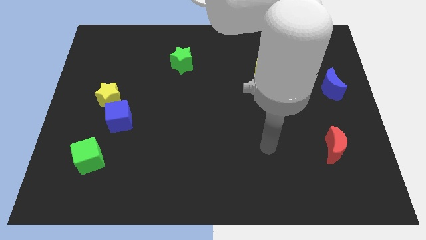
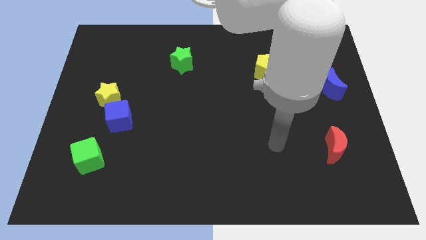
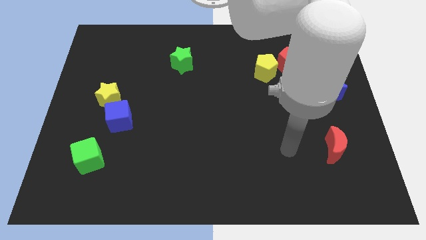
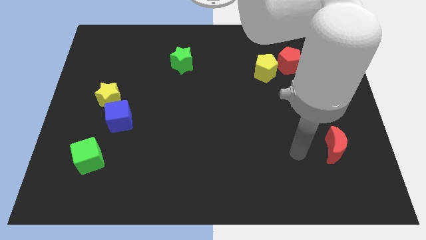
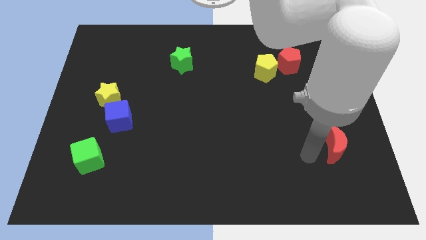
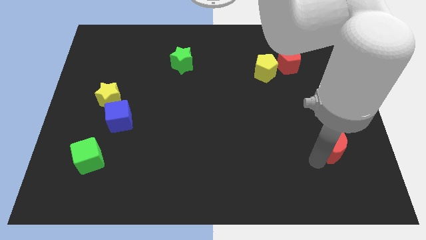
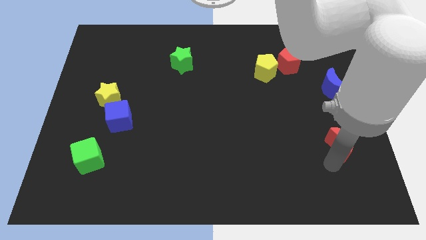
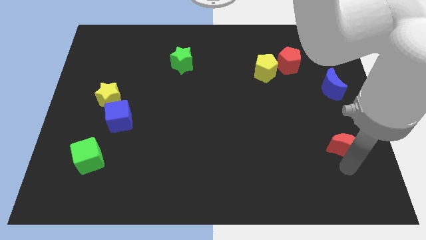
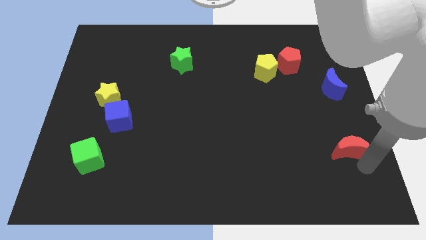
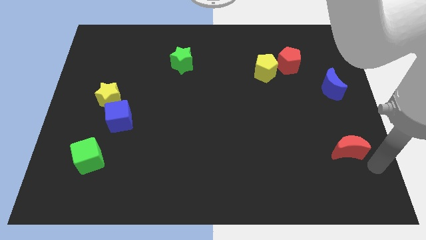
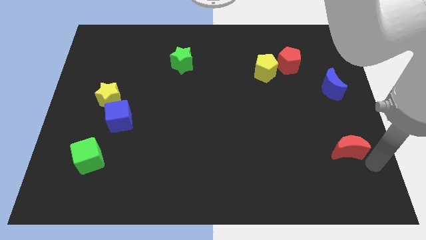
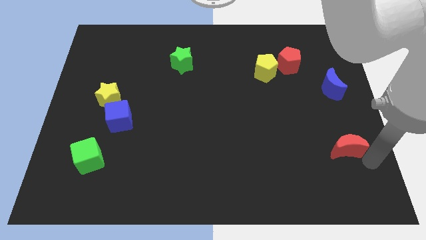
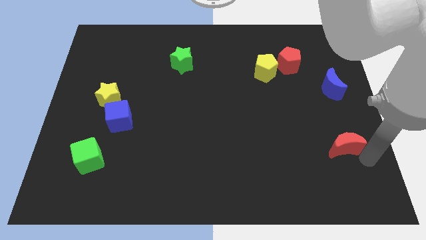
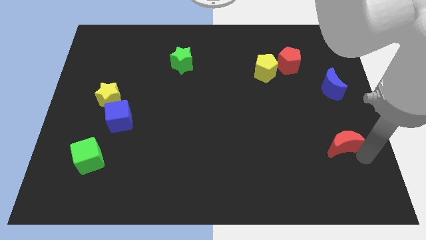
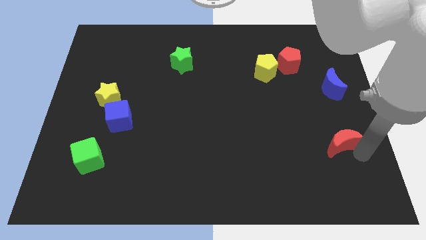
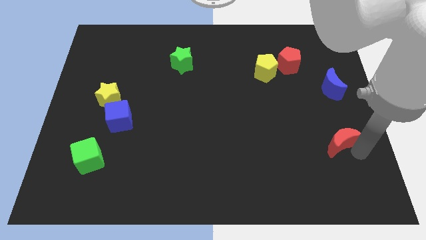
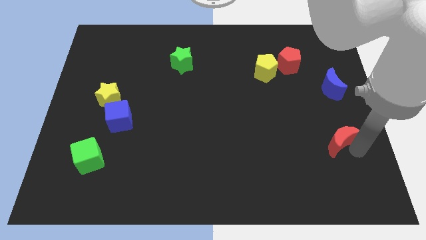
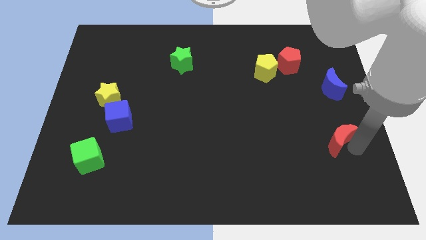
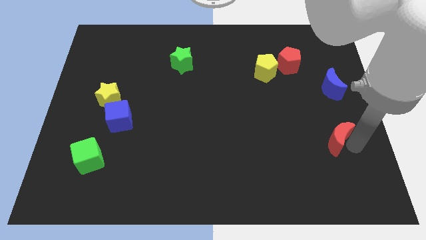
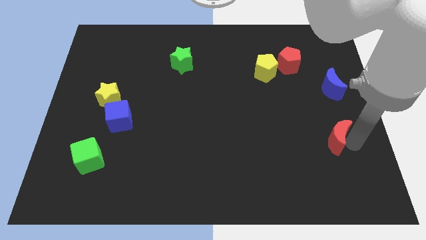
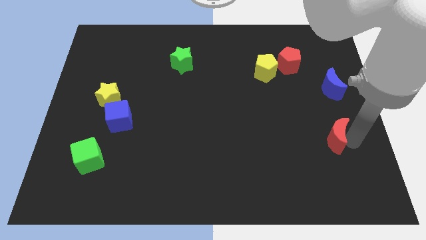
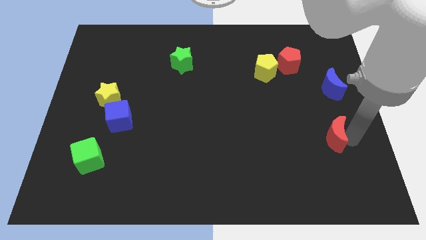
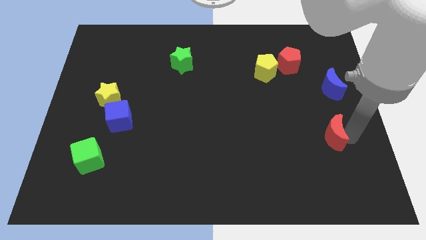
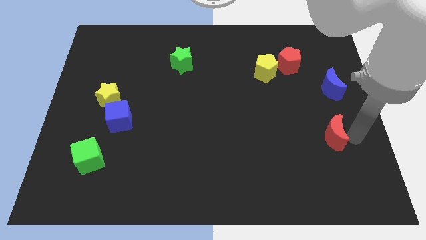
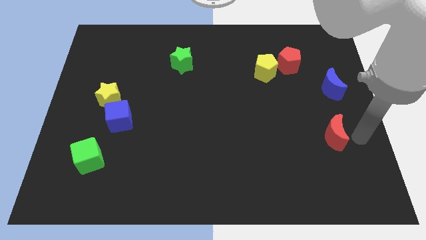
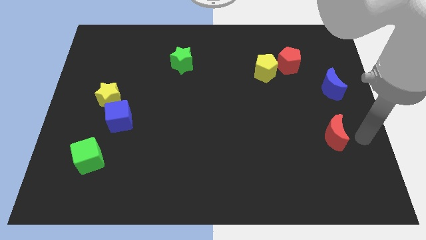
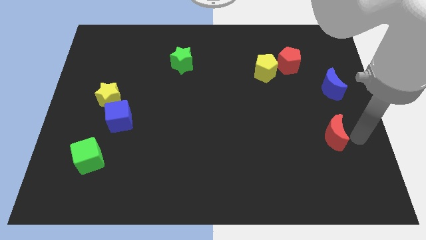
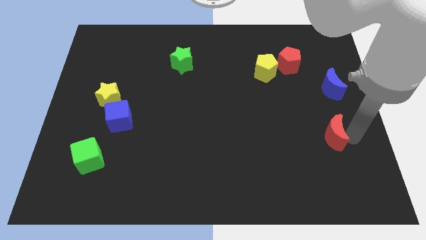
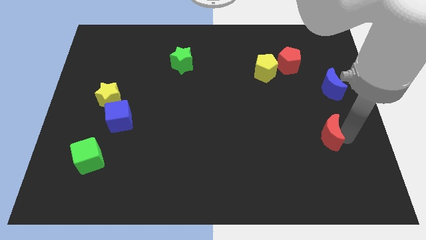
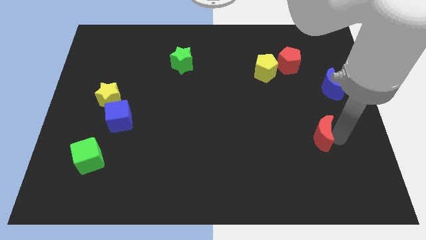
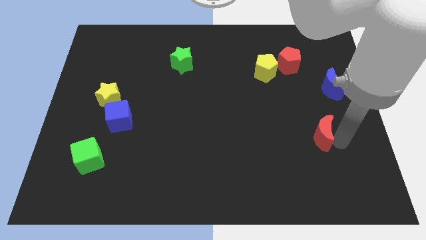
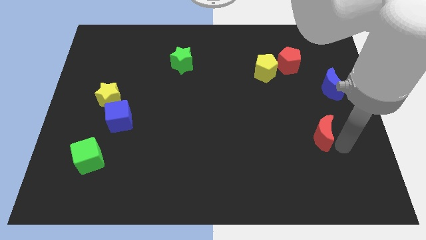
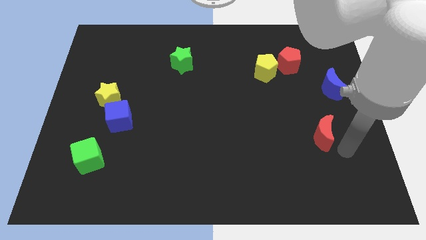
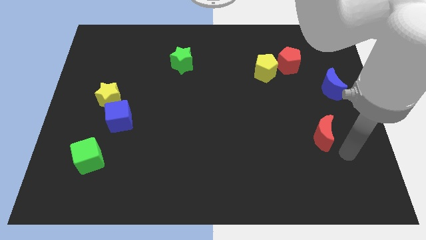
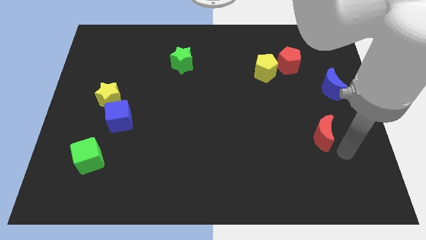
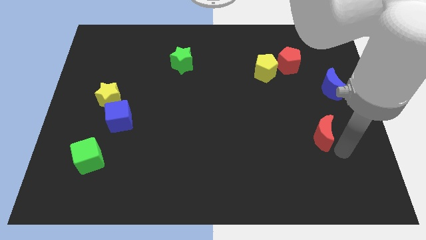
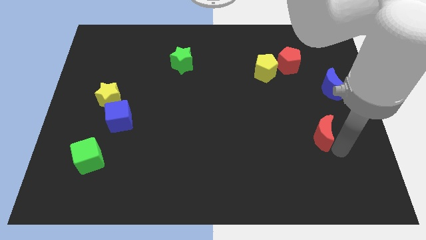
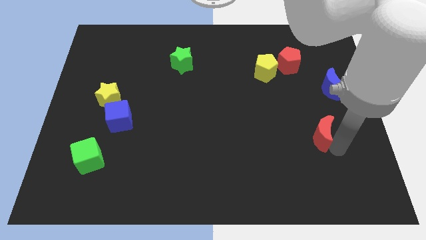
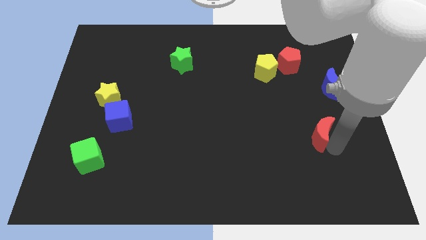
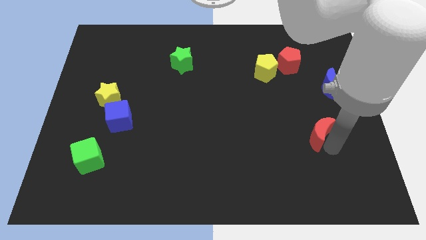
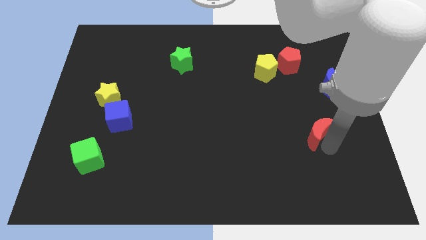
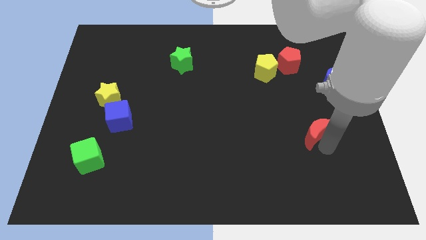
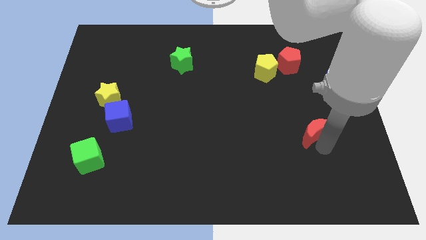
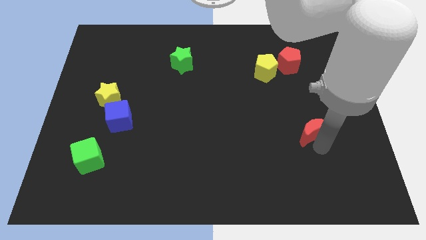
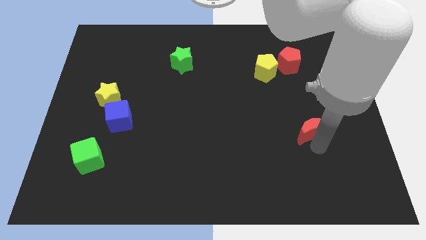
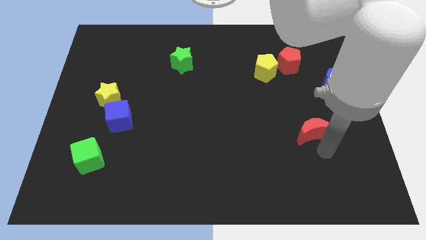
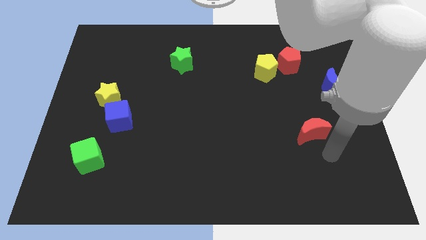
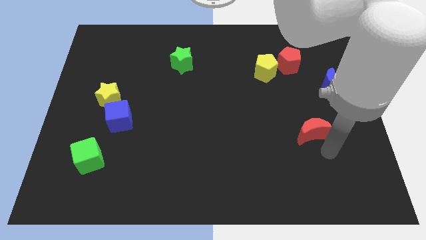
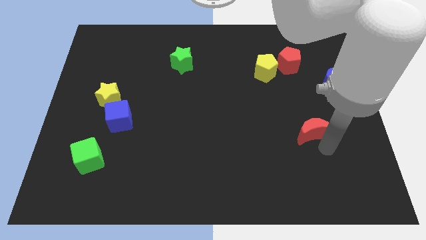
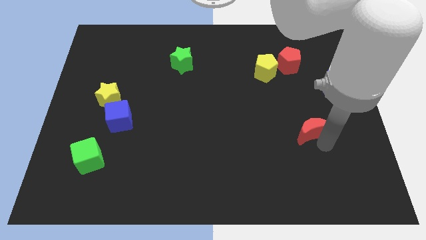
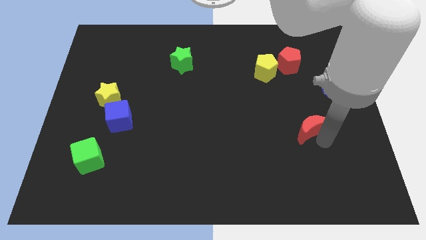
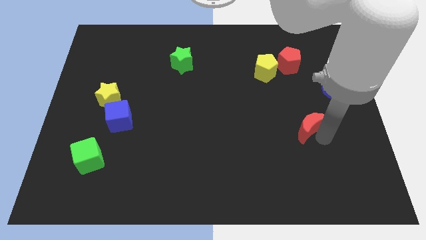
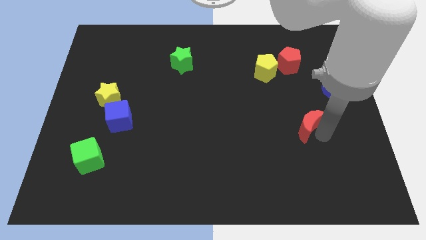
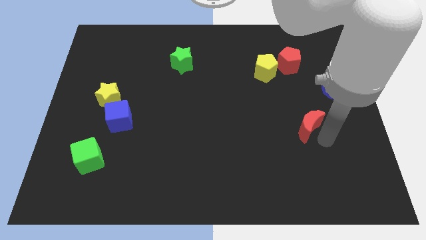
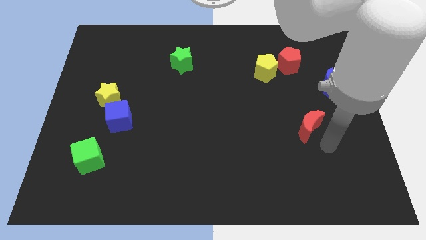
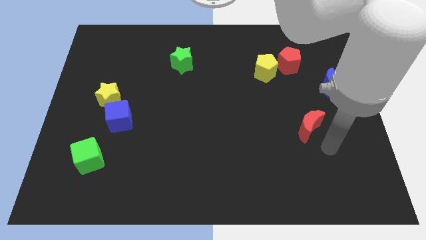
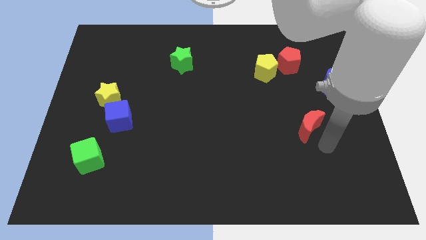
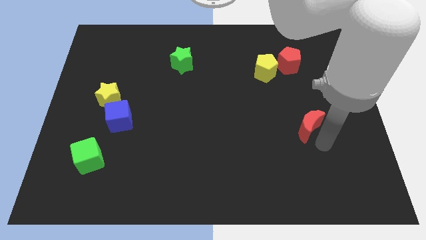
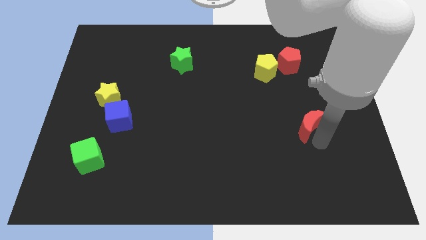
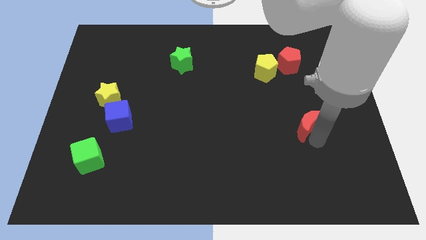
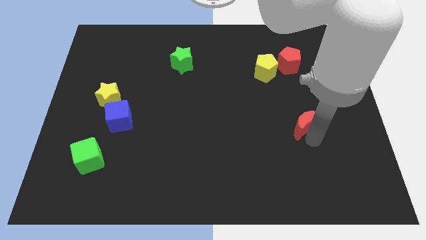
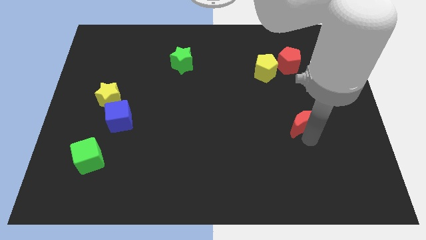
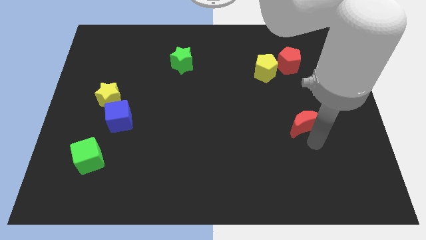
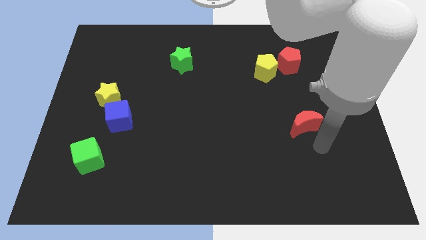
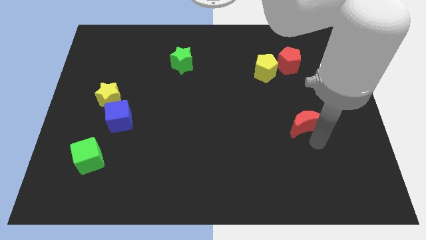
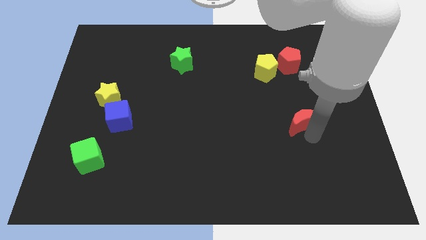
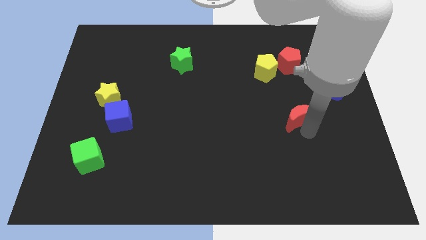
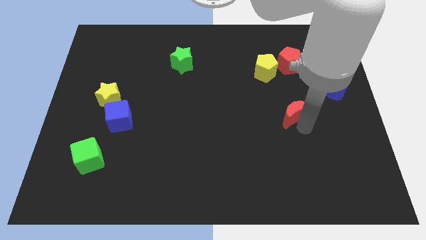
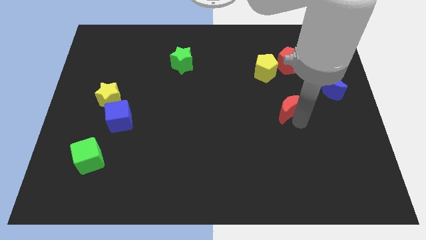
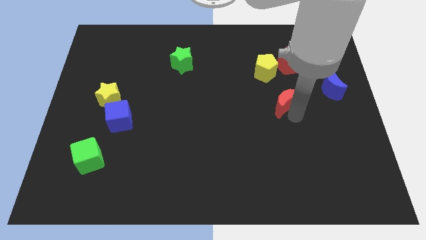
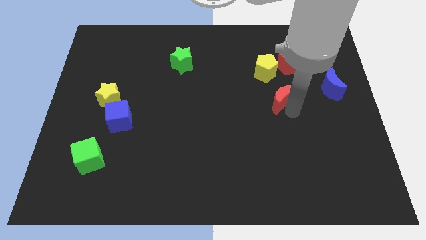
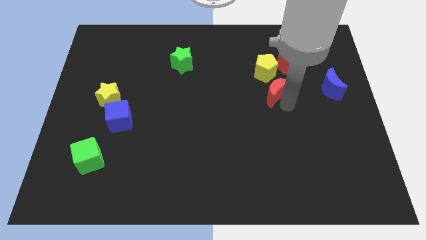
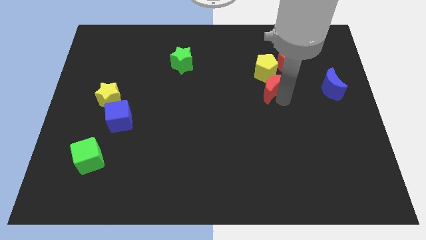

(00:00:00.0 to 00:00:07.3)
move the red moon upwards and then left
